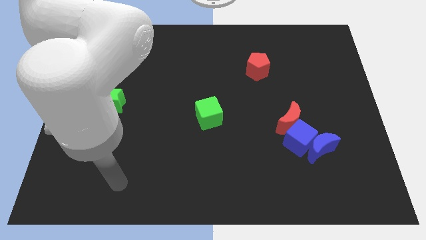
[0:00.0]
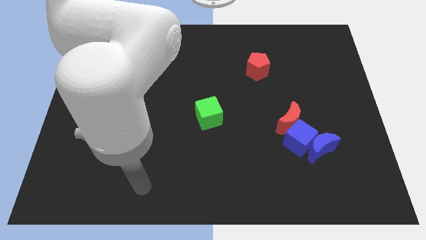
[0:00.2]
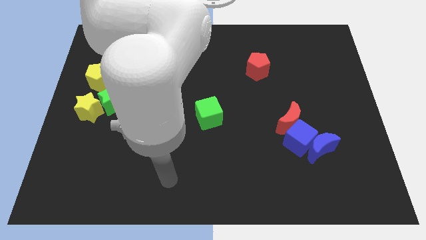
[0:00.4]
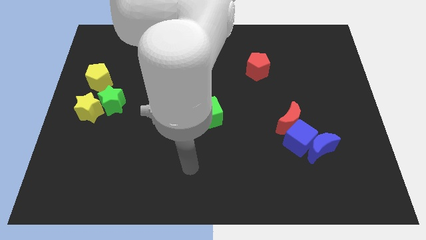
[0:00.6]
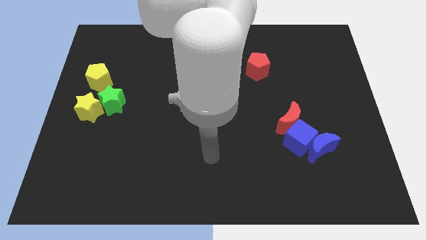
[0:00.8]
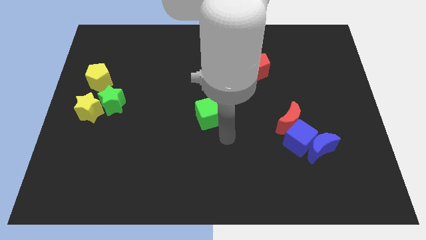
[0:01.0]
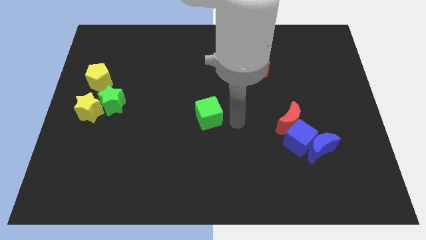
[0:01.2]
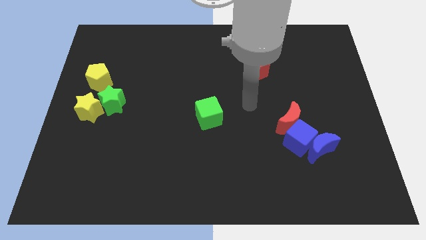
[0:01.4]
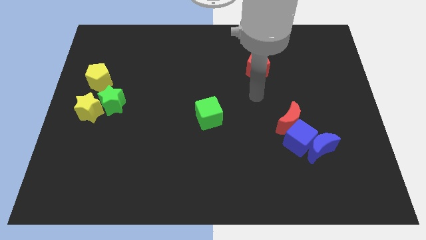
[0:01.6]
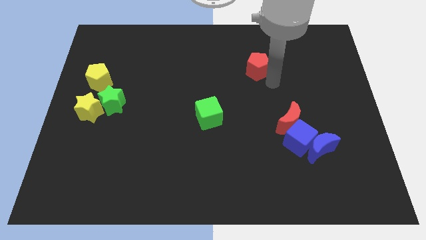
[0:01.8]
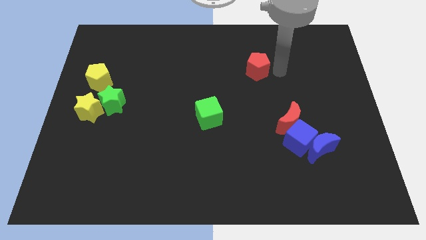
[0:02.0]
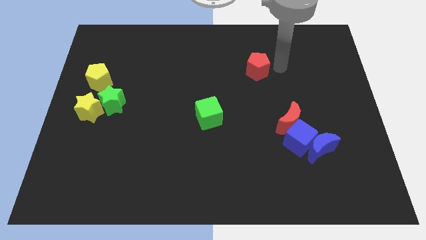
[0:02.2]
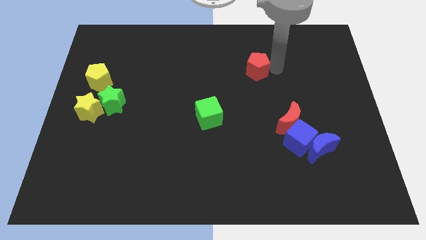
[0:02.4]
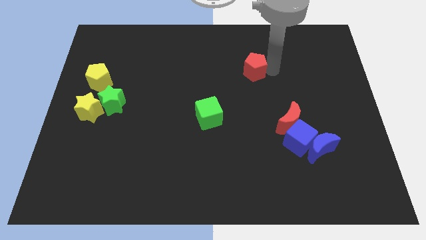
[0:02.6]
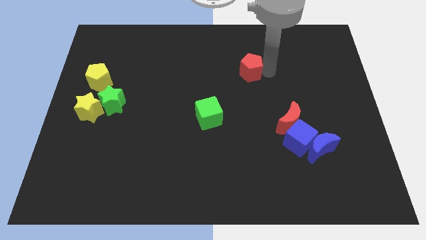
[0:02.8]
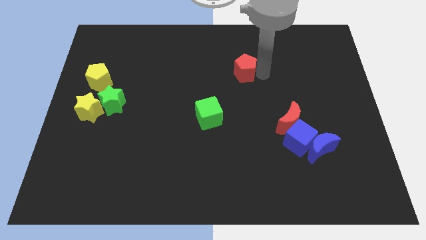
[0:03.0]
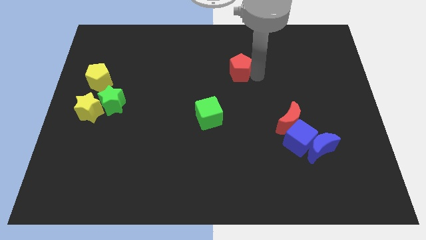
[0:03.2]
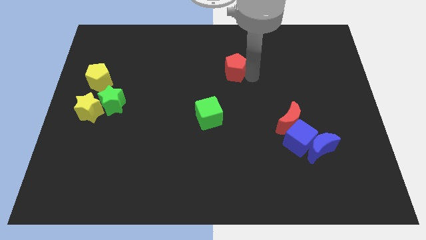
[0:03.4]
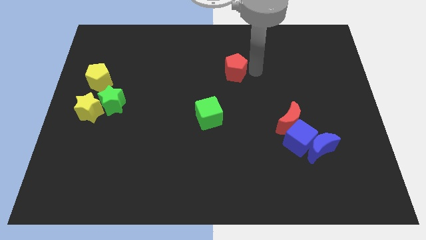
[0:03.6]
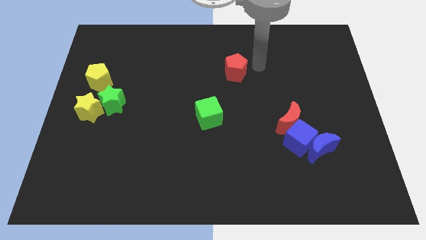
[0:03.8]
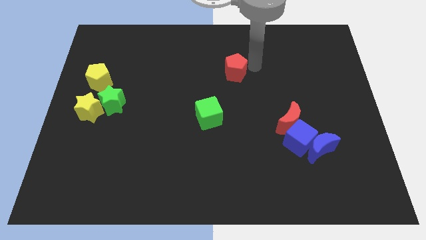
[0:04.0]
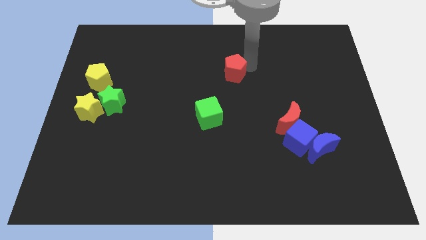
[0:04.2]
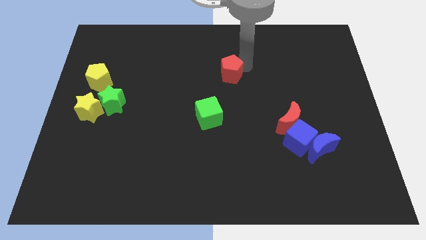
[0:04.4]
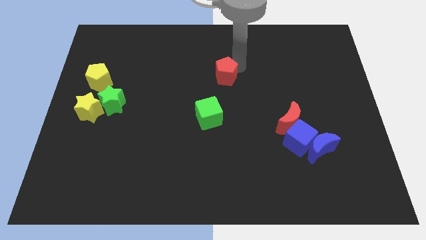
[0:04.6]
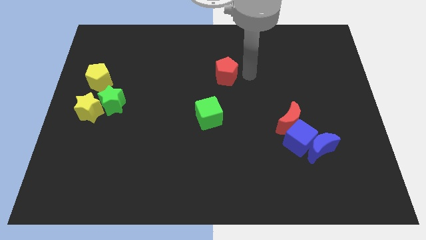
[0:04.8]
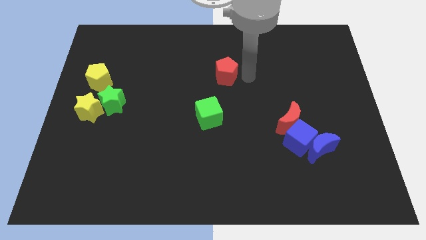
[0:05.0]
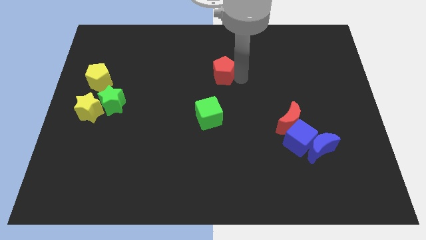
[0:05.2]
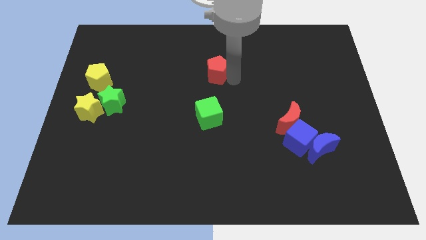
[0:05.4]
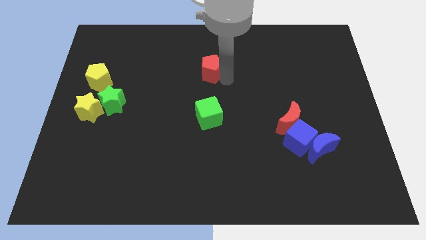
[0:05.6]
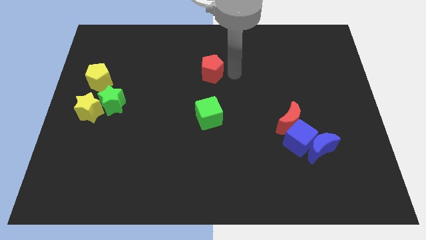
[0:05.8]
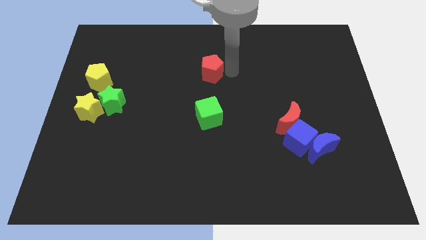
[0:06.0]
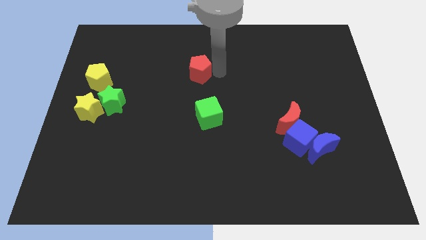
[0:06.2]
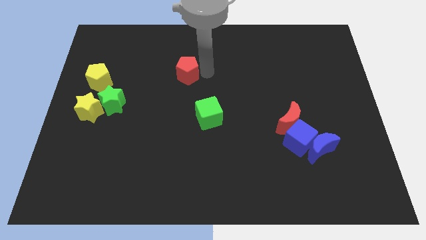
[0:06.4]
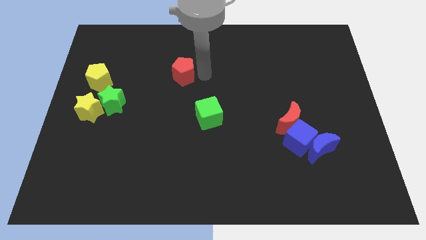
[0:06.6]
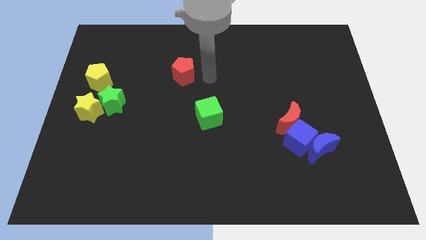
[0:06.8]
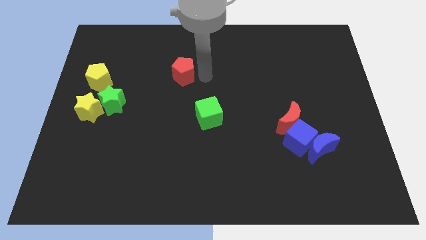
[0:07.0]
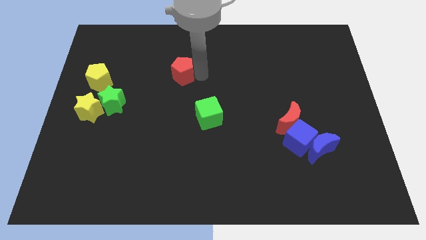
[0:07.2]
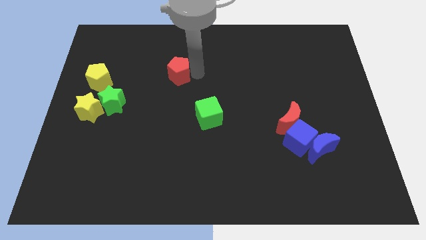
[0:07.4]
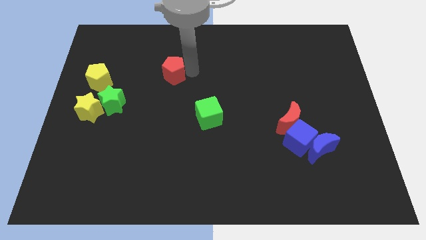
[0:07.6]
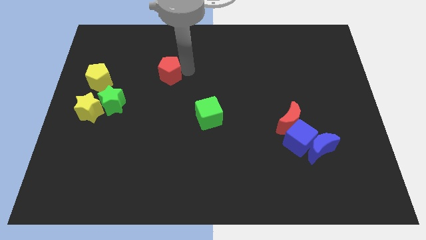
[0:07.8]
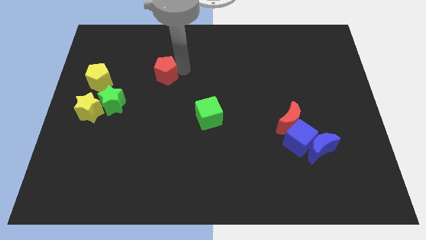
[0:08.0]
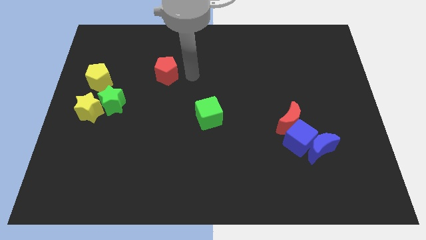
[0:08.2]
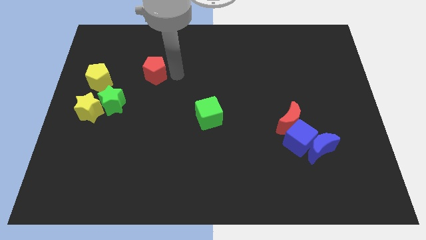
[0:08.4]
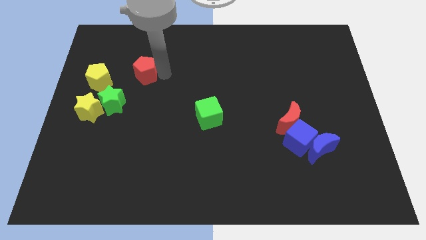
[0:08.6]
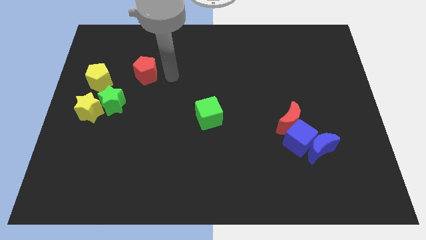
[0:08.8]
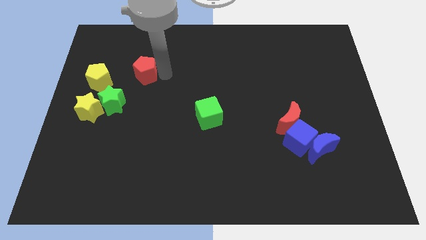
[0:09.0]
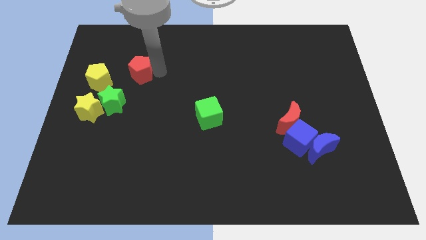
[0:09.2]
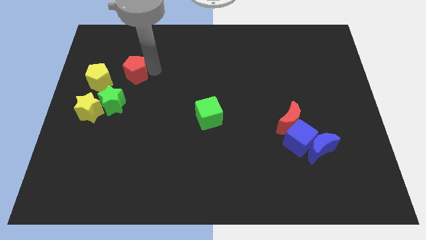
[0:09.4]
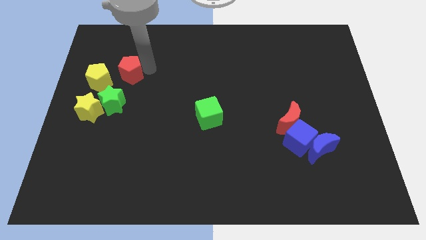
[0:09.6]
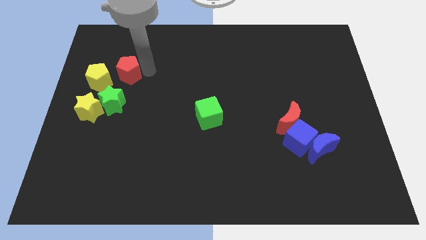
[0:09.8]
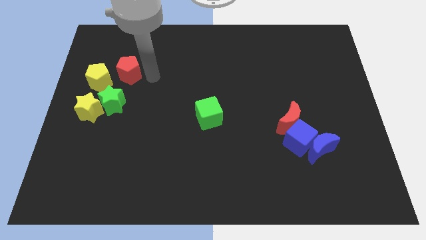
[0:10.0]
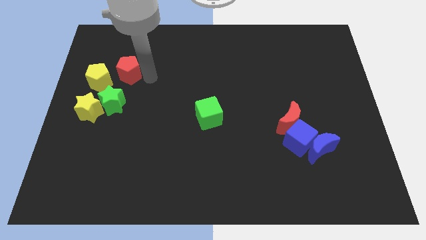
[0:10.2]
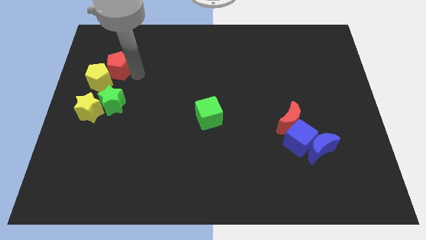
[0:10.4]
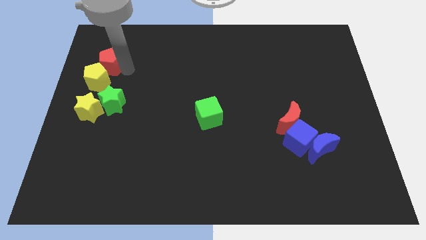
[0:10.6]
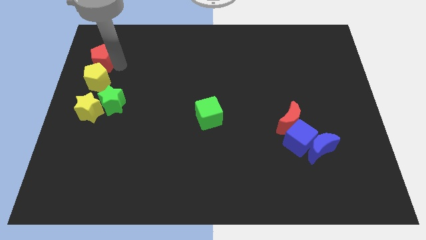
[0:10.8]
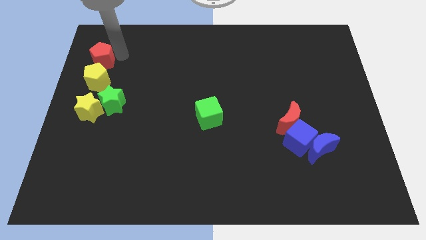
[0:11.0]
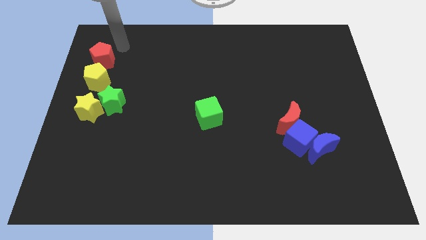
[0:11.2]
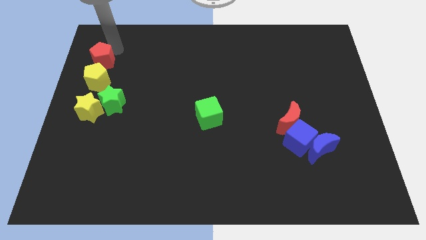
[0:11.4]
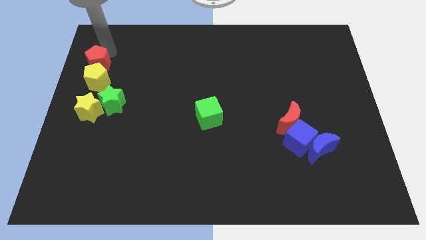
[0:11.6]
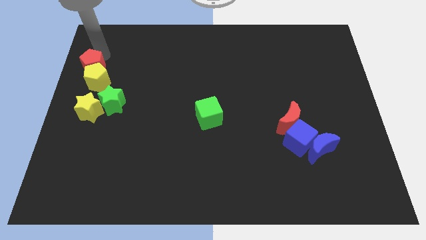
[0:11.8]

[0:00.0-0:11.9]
move the red pentagon to the left side of the board
